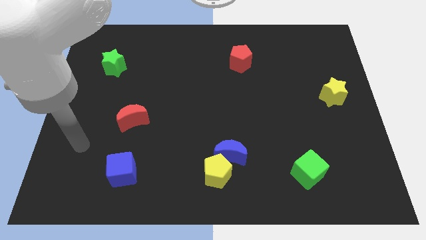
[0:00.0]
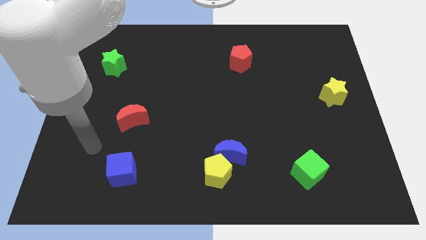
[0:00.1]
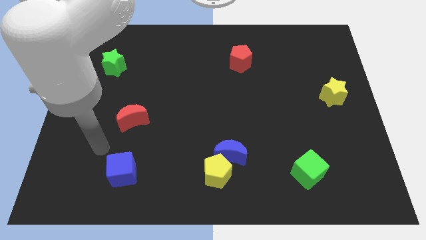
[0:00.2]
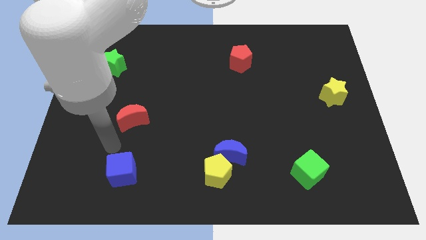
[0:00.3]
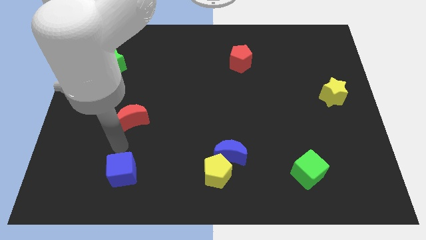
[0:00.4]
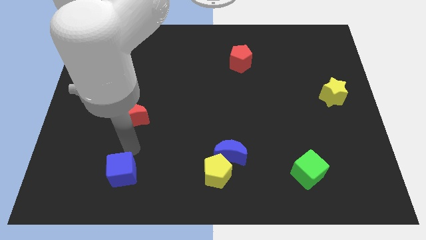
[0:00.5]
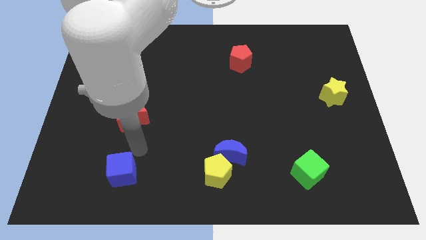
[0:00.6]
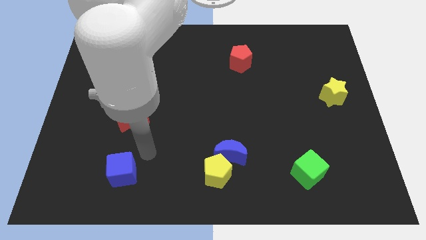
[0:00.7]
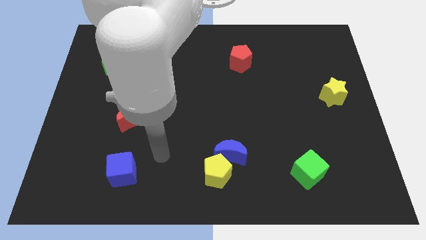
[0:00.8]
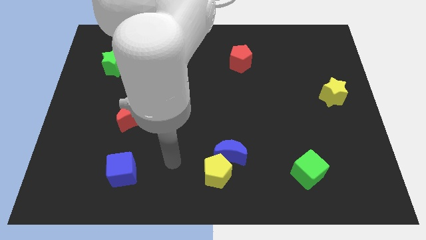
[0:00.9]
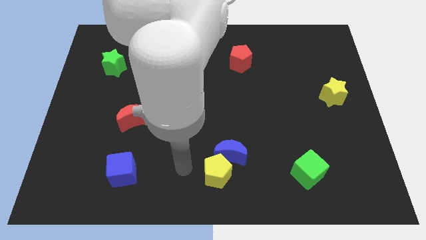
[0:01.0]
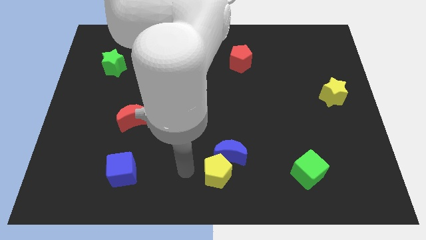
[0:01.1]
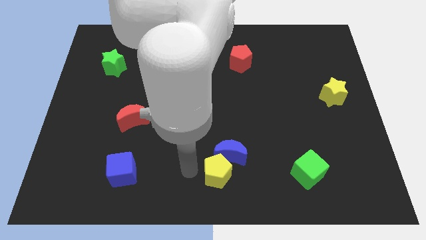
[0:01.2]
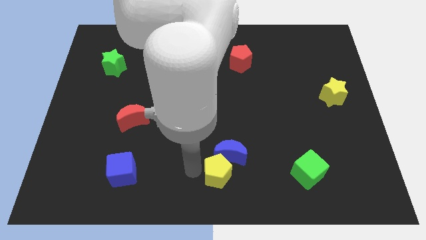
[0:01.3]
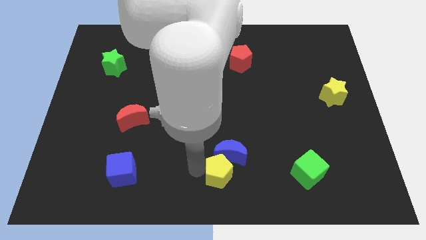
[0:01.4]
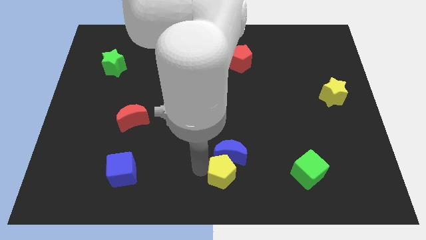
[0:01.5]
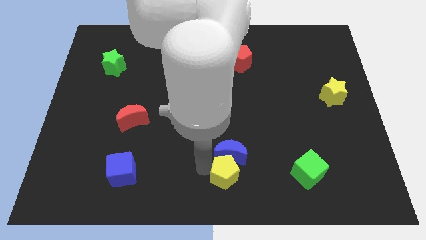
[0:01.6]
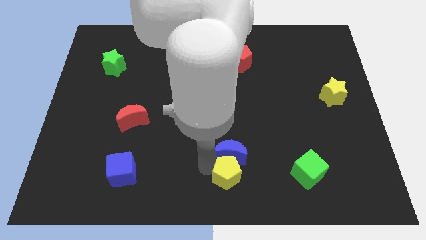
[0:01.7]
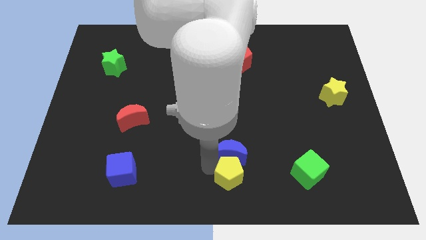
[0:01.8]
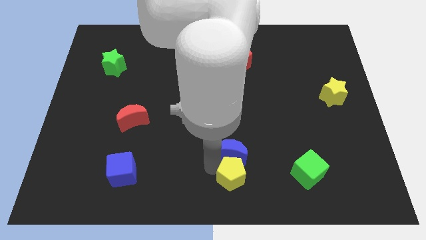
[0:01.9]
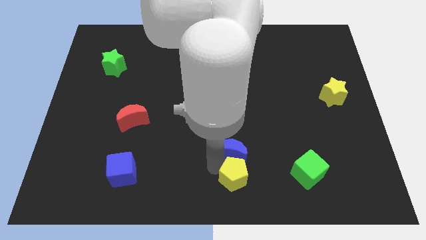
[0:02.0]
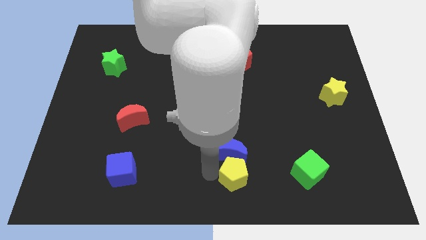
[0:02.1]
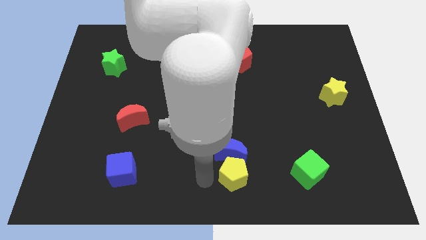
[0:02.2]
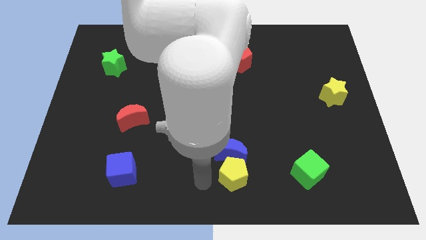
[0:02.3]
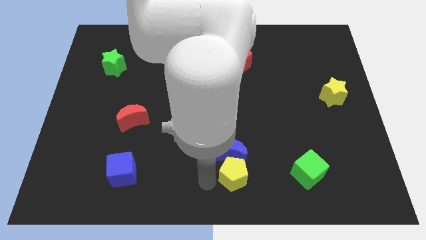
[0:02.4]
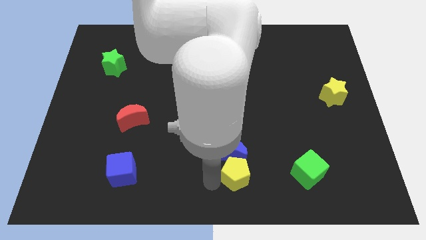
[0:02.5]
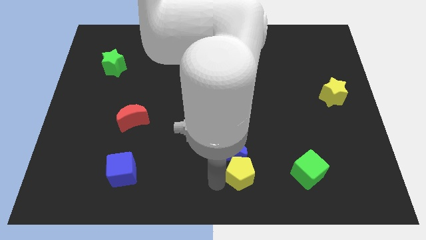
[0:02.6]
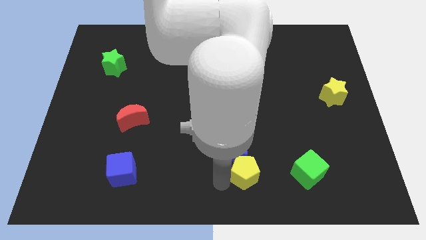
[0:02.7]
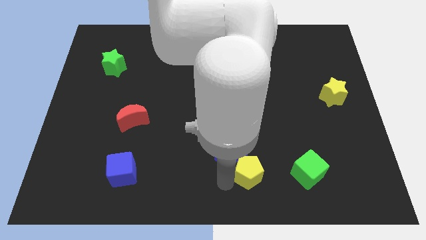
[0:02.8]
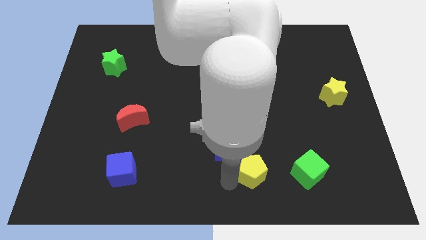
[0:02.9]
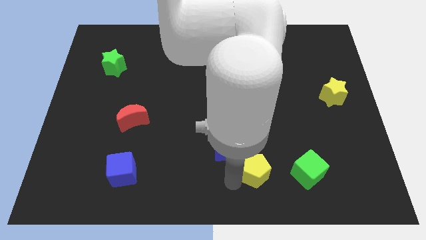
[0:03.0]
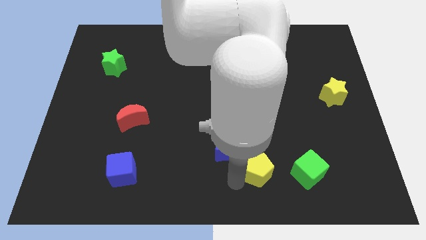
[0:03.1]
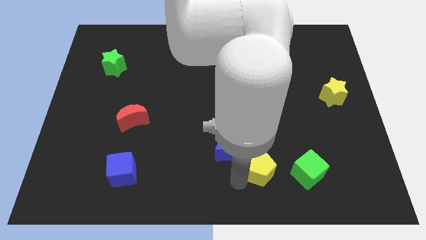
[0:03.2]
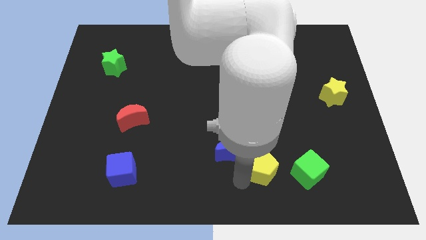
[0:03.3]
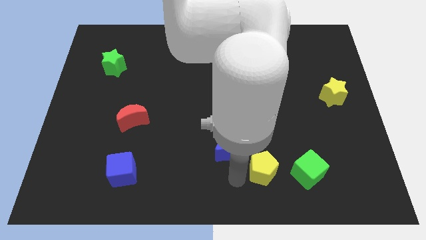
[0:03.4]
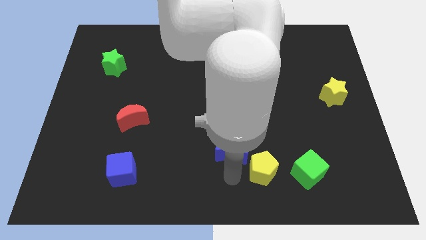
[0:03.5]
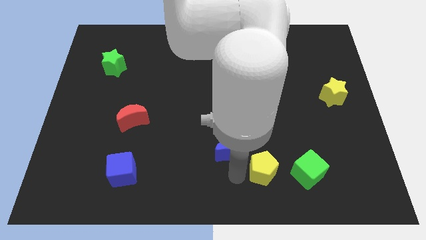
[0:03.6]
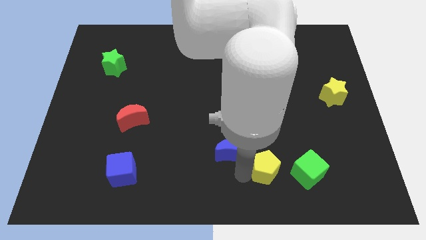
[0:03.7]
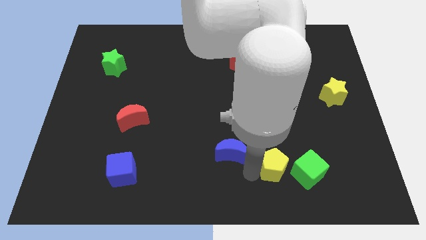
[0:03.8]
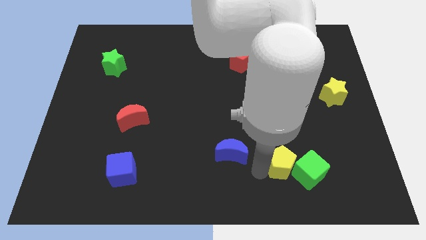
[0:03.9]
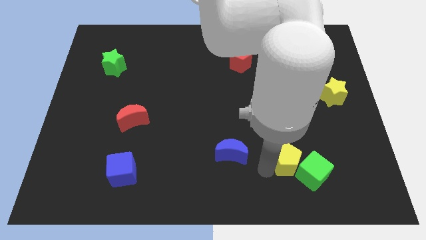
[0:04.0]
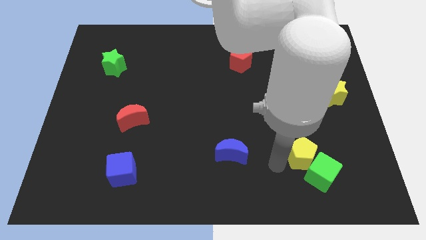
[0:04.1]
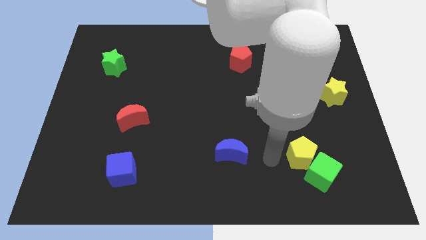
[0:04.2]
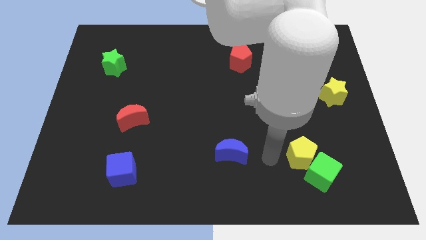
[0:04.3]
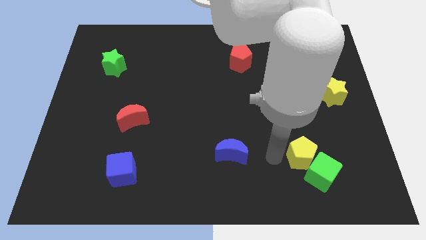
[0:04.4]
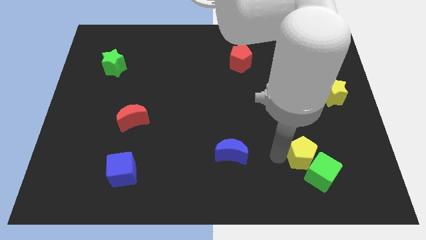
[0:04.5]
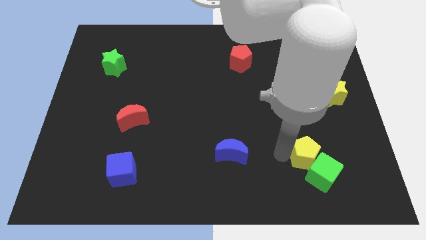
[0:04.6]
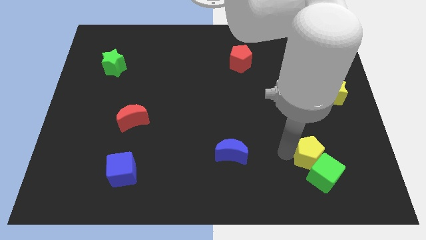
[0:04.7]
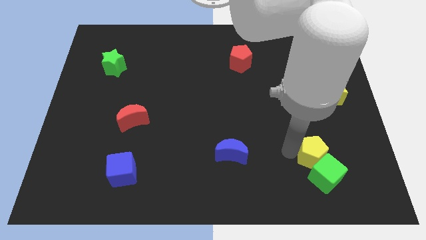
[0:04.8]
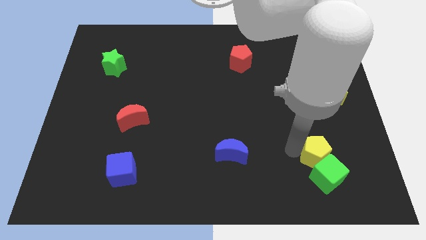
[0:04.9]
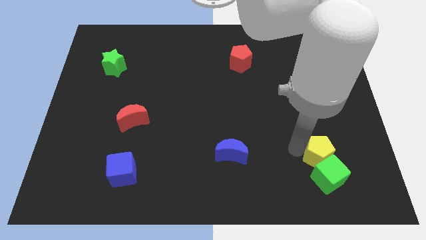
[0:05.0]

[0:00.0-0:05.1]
slide the yellow pentagon to the top right of the green cube

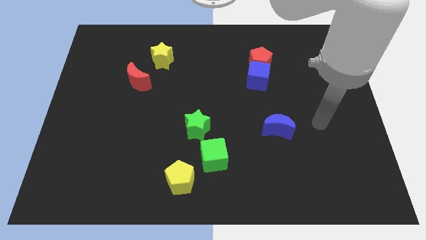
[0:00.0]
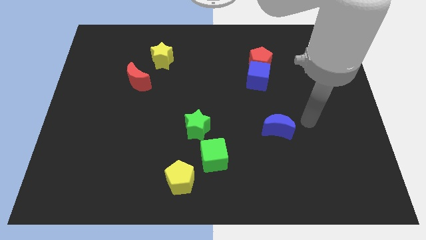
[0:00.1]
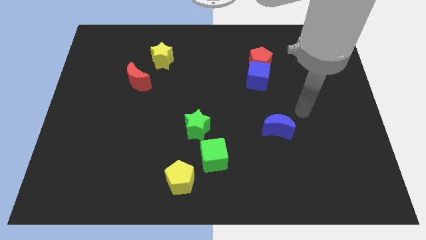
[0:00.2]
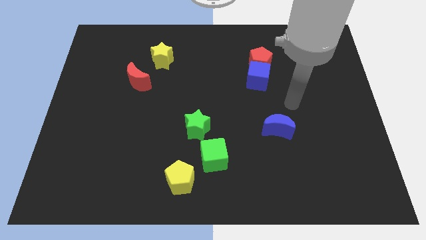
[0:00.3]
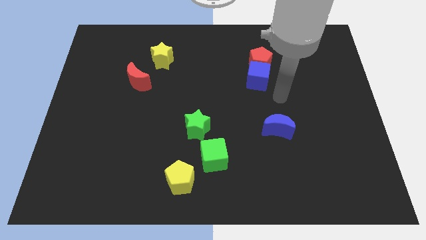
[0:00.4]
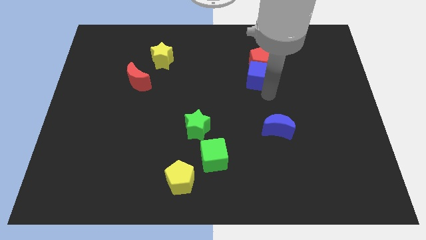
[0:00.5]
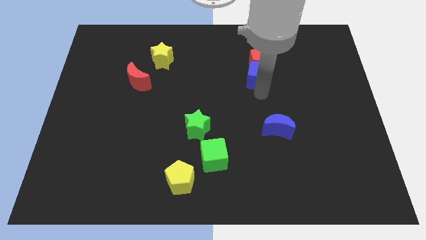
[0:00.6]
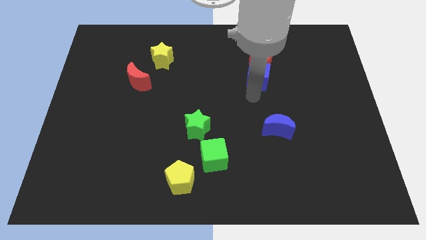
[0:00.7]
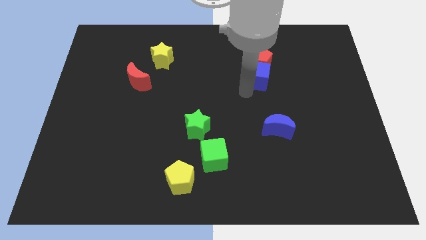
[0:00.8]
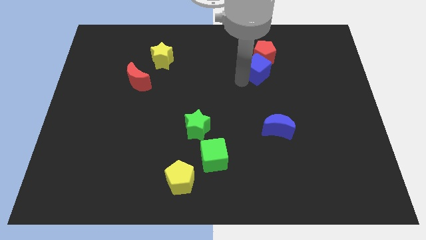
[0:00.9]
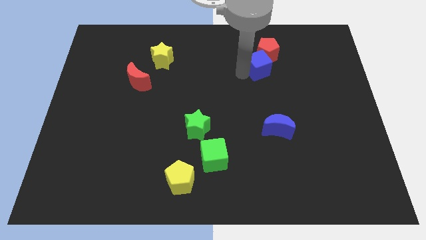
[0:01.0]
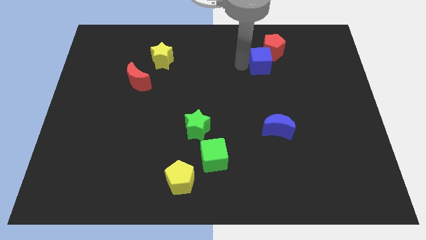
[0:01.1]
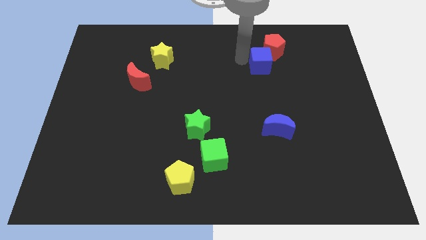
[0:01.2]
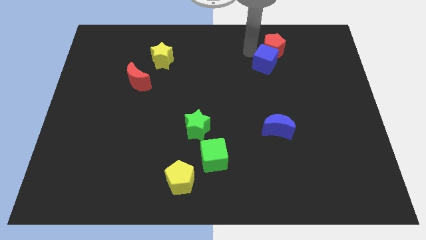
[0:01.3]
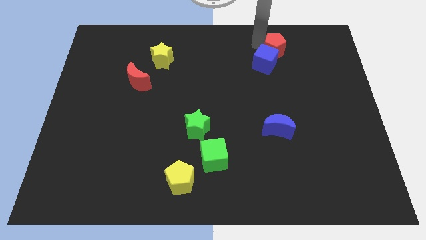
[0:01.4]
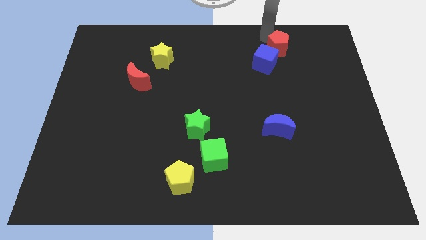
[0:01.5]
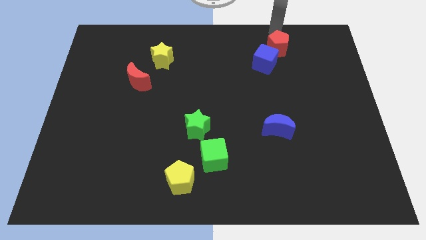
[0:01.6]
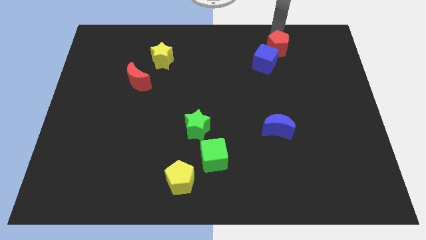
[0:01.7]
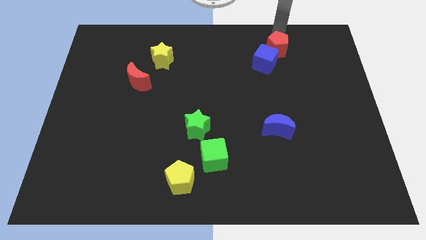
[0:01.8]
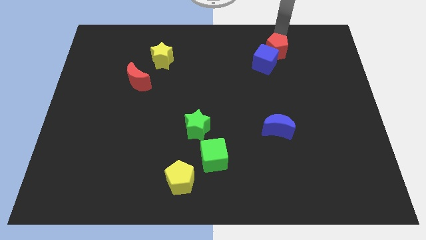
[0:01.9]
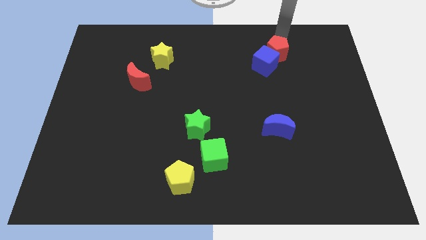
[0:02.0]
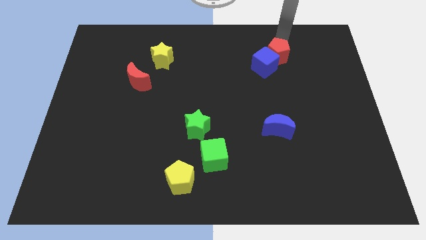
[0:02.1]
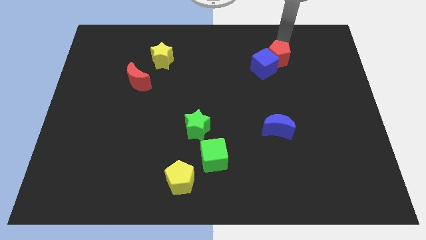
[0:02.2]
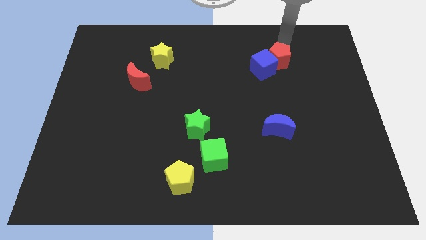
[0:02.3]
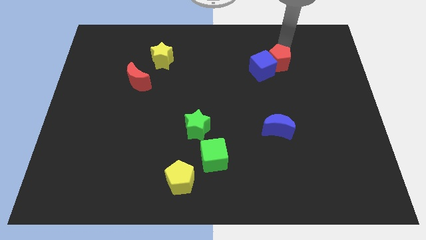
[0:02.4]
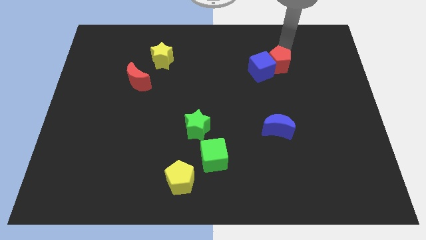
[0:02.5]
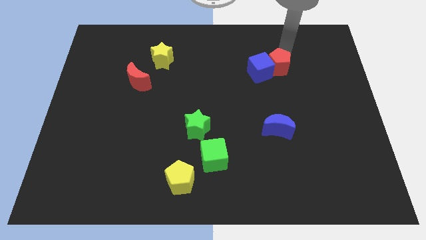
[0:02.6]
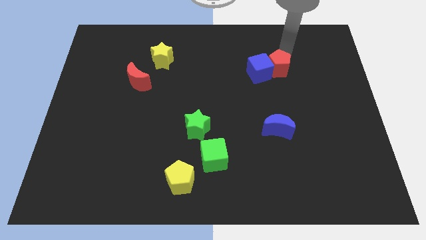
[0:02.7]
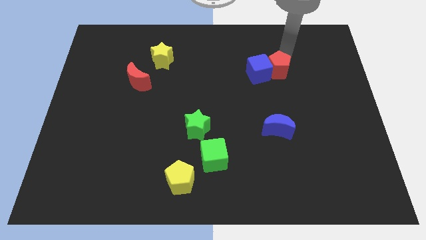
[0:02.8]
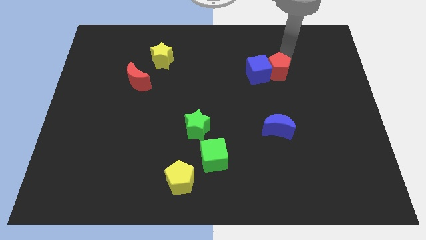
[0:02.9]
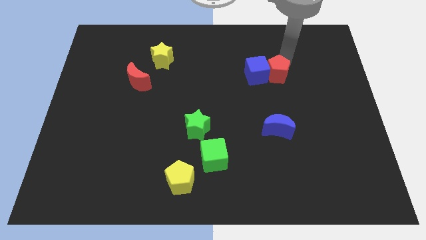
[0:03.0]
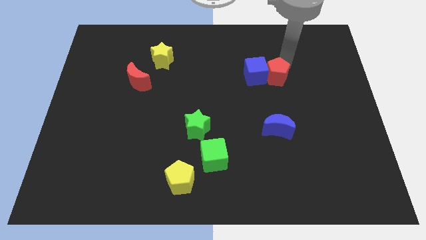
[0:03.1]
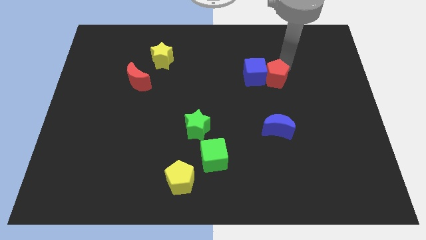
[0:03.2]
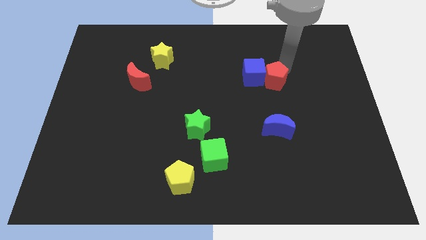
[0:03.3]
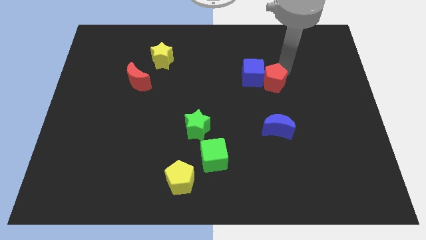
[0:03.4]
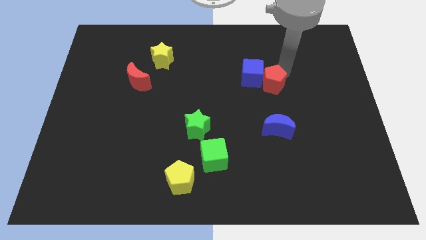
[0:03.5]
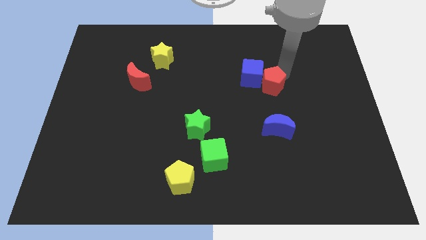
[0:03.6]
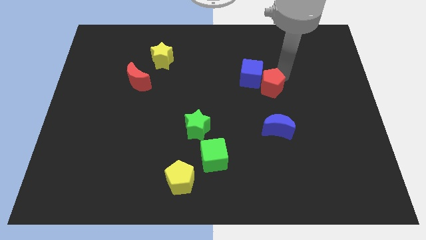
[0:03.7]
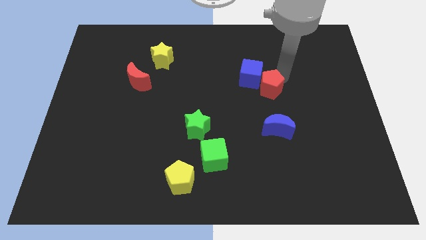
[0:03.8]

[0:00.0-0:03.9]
slide the red pentagon below the blue cube
